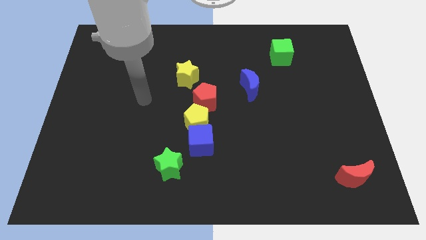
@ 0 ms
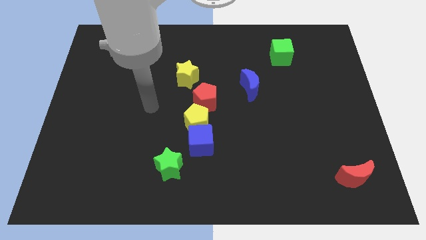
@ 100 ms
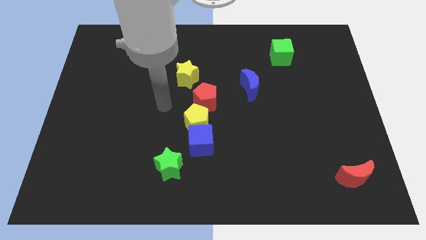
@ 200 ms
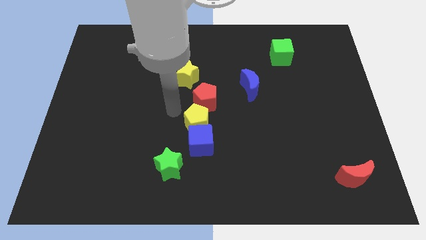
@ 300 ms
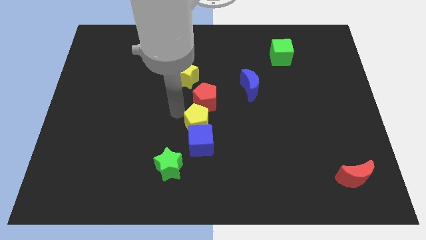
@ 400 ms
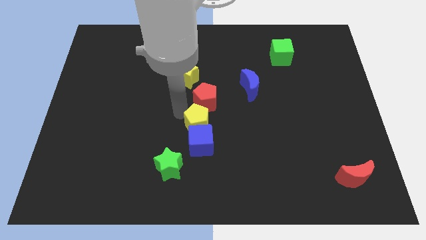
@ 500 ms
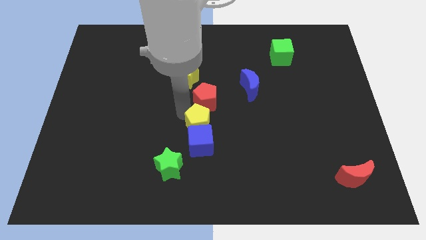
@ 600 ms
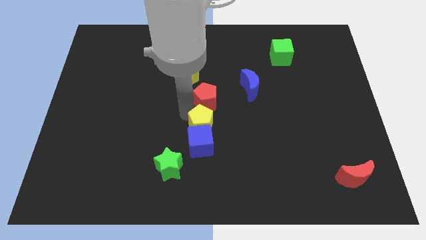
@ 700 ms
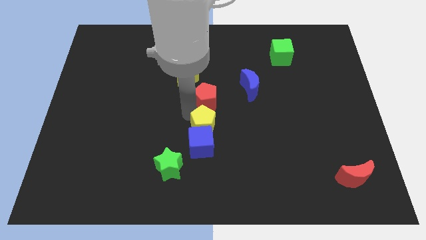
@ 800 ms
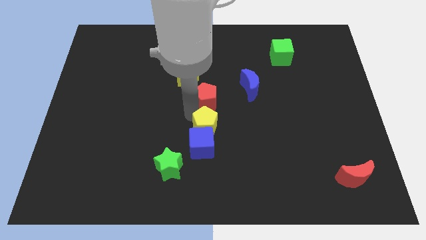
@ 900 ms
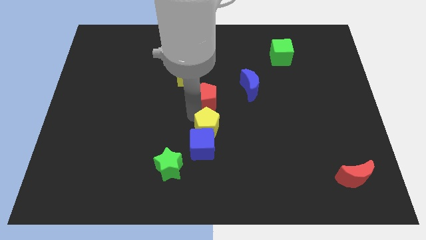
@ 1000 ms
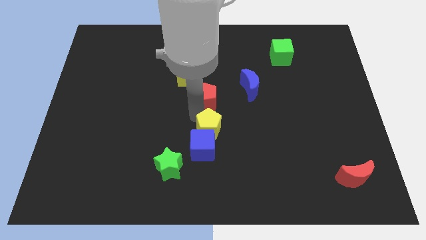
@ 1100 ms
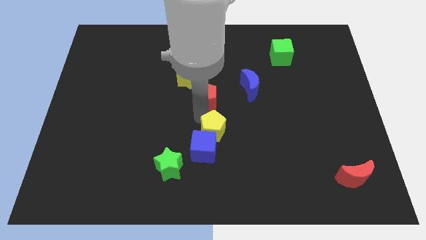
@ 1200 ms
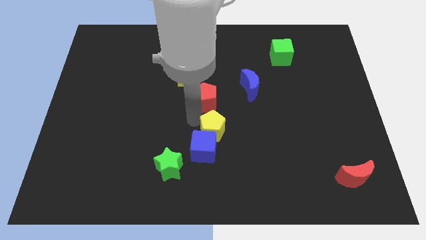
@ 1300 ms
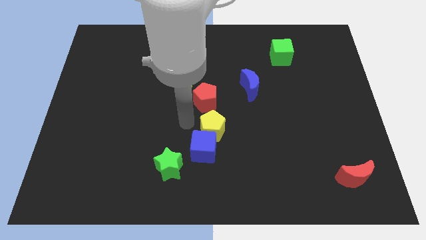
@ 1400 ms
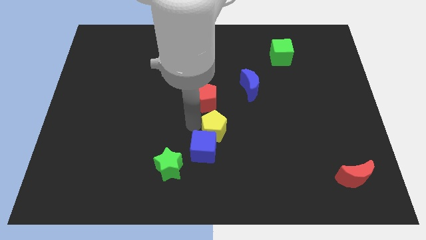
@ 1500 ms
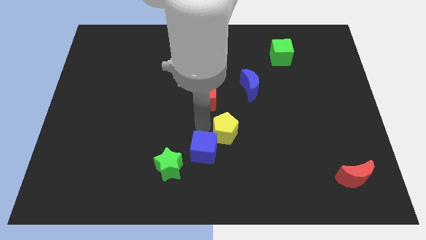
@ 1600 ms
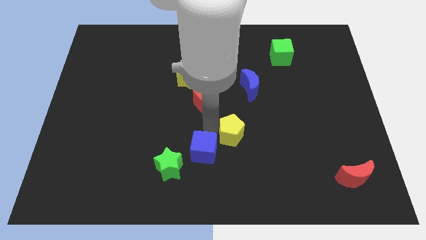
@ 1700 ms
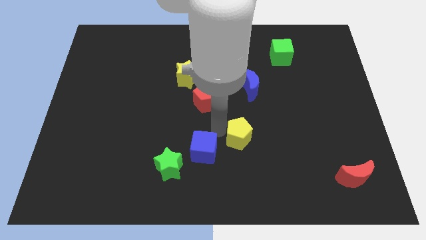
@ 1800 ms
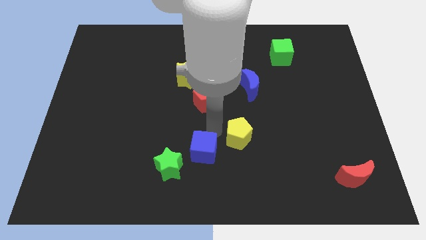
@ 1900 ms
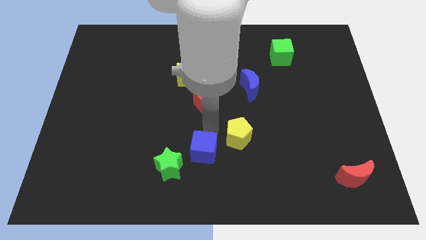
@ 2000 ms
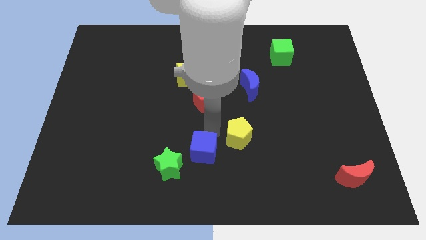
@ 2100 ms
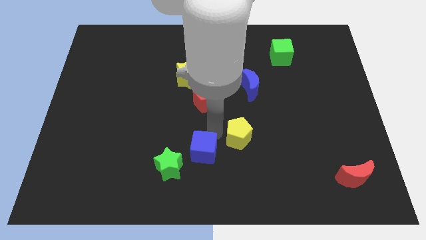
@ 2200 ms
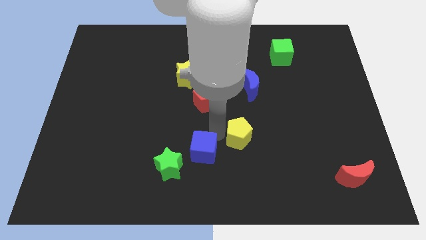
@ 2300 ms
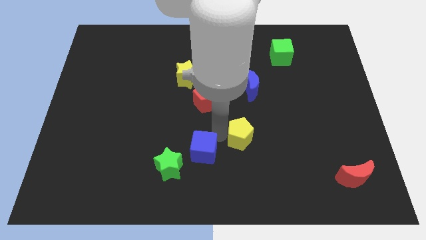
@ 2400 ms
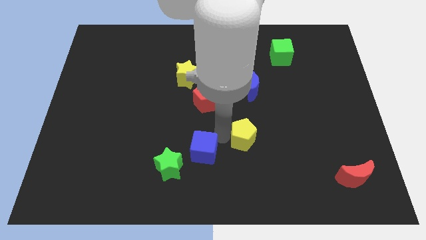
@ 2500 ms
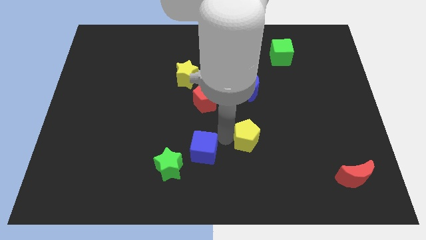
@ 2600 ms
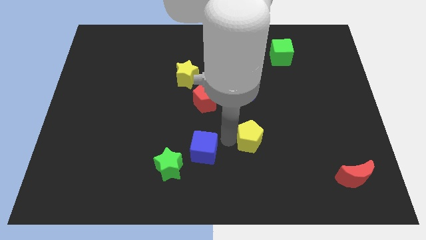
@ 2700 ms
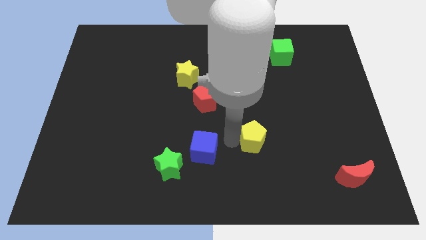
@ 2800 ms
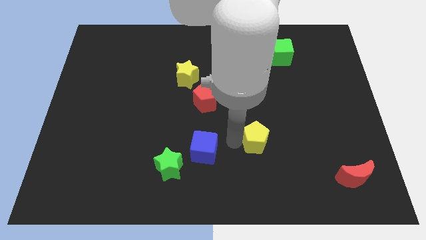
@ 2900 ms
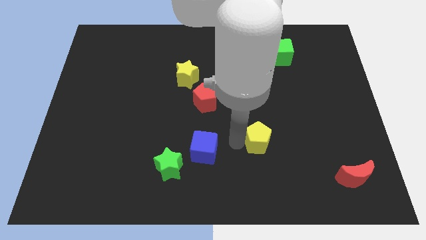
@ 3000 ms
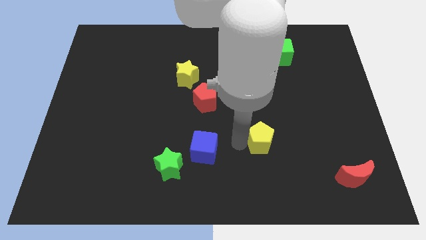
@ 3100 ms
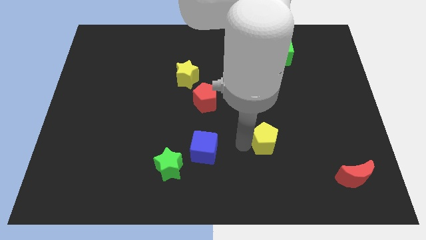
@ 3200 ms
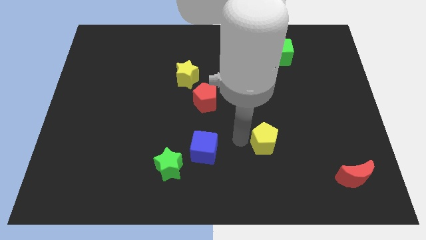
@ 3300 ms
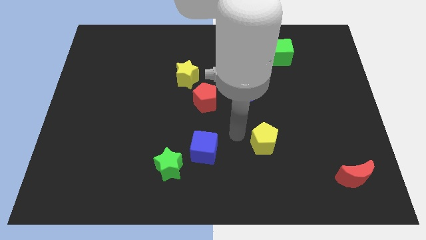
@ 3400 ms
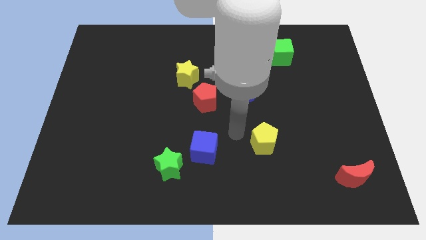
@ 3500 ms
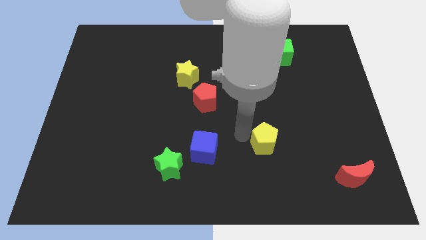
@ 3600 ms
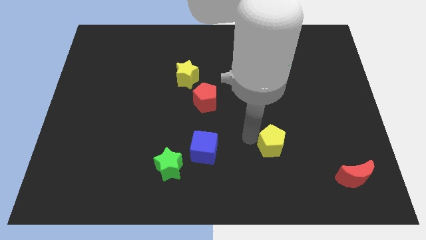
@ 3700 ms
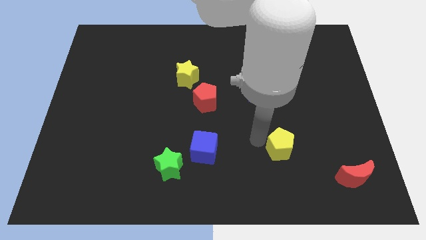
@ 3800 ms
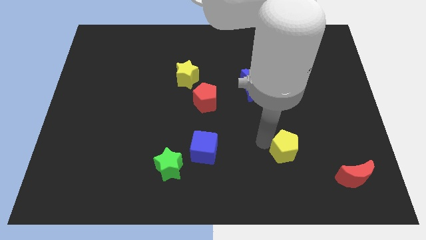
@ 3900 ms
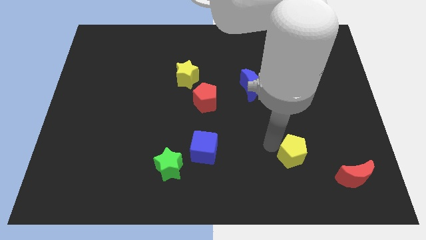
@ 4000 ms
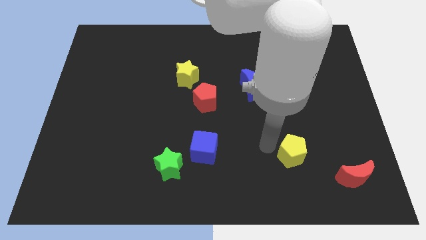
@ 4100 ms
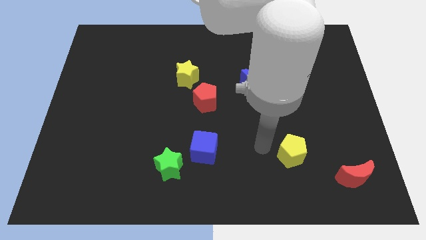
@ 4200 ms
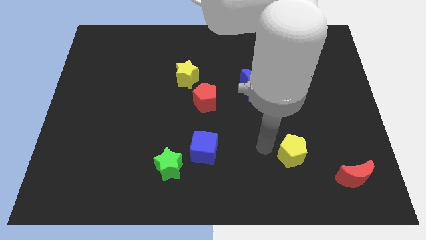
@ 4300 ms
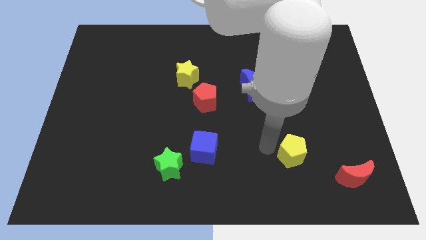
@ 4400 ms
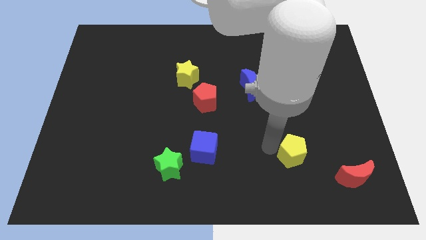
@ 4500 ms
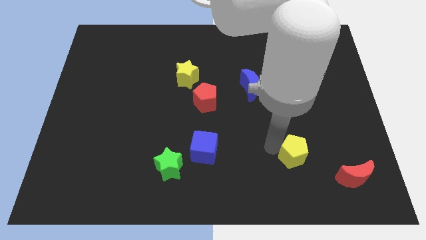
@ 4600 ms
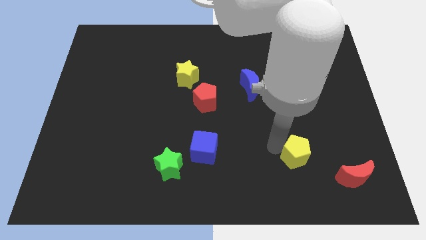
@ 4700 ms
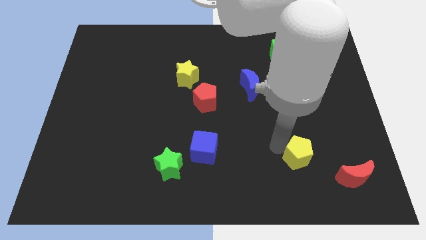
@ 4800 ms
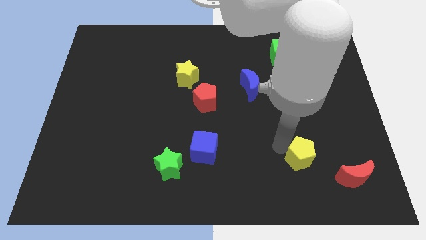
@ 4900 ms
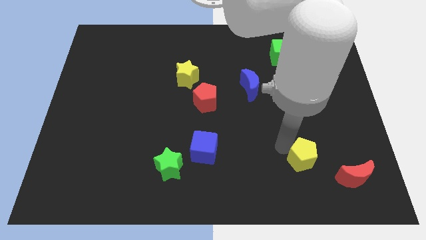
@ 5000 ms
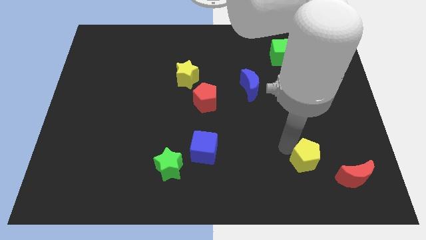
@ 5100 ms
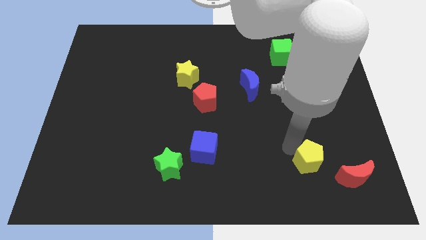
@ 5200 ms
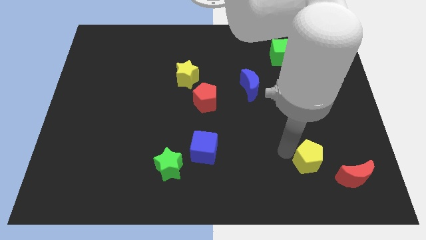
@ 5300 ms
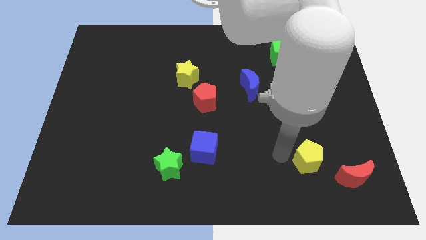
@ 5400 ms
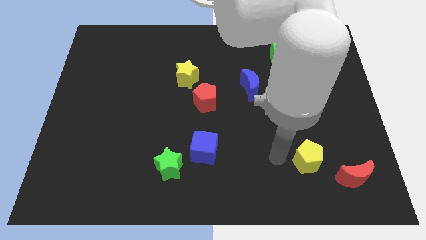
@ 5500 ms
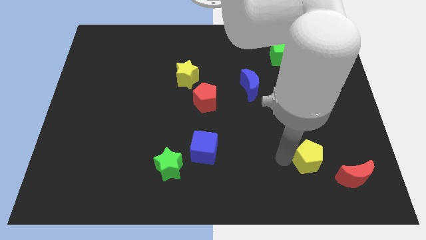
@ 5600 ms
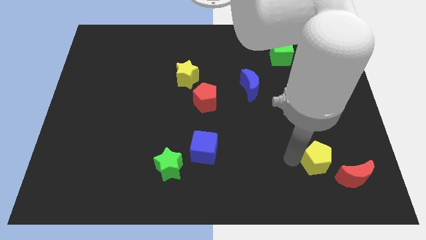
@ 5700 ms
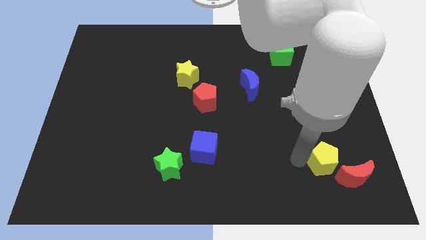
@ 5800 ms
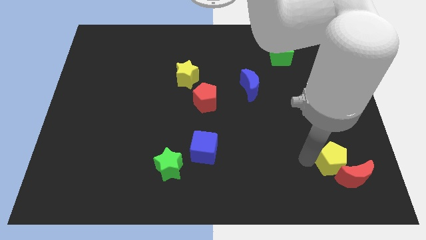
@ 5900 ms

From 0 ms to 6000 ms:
move the yellow pentagon towards the red moon
